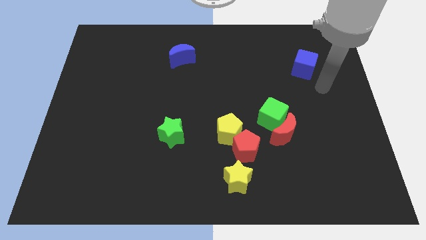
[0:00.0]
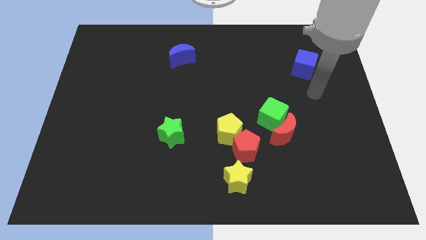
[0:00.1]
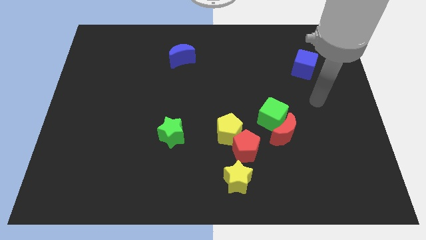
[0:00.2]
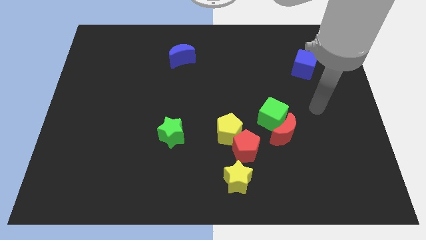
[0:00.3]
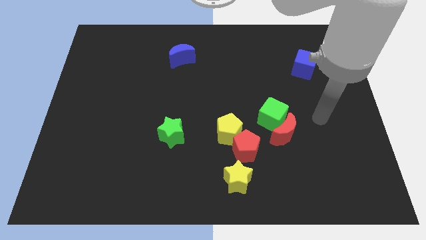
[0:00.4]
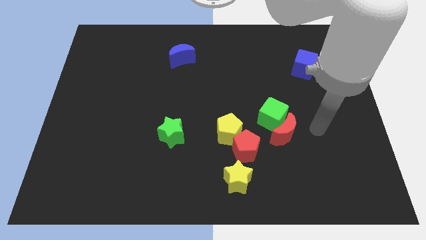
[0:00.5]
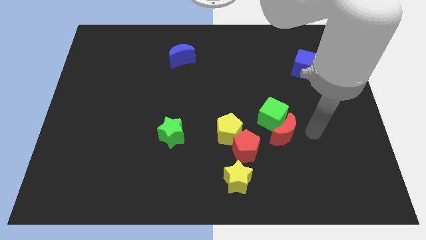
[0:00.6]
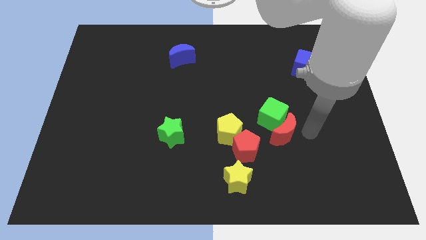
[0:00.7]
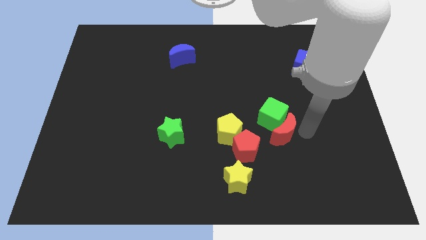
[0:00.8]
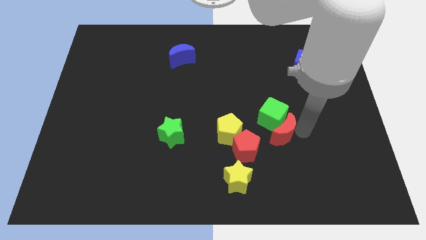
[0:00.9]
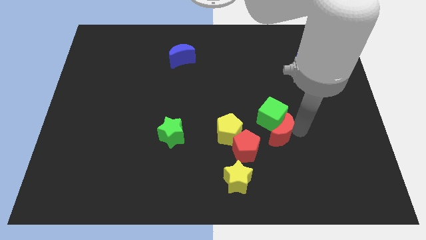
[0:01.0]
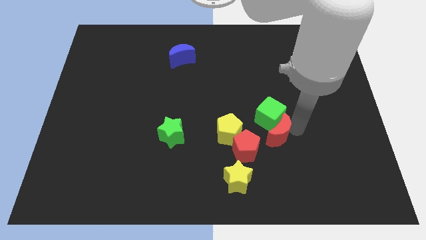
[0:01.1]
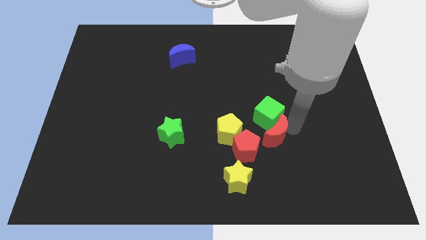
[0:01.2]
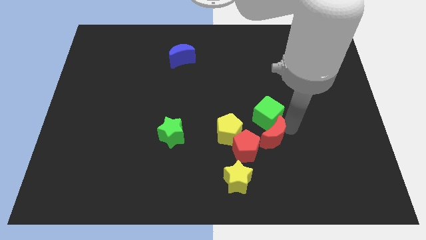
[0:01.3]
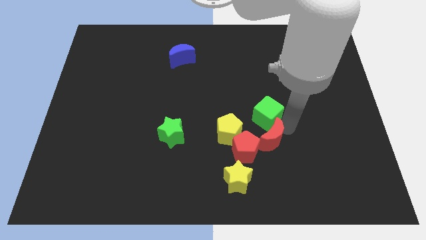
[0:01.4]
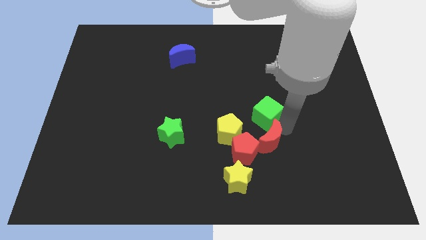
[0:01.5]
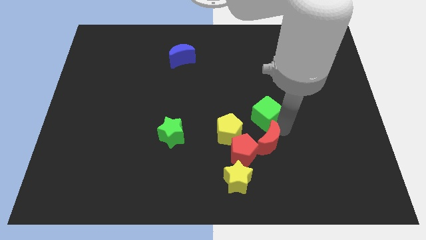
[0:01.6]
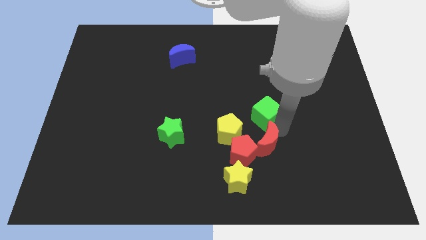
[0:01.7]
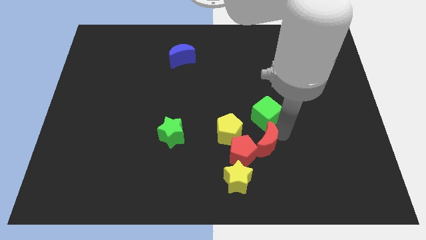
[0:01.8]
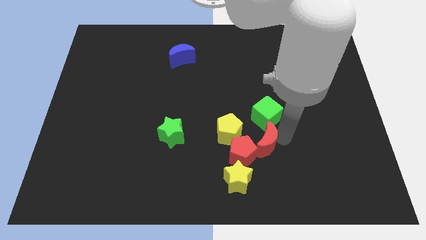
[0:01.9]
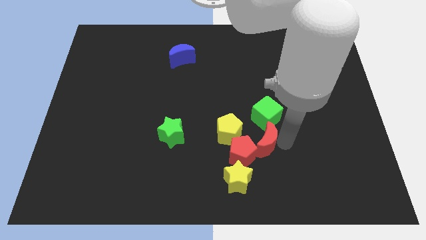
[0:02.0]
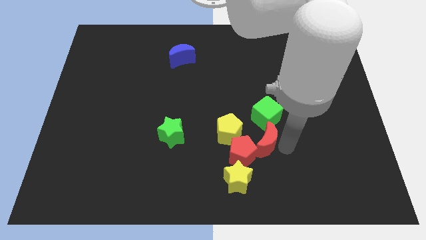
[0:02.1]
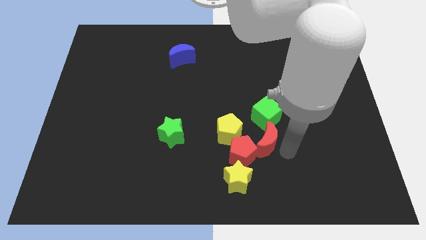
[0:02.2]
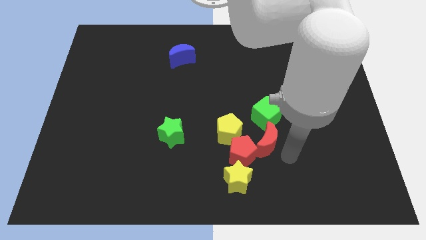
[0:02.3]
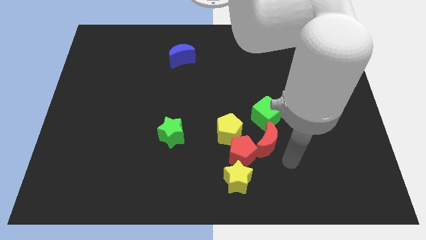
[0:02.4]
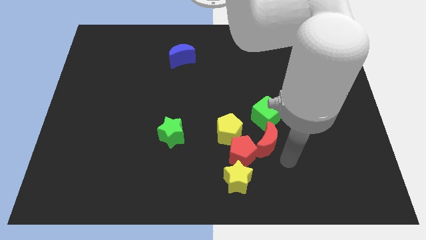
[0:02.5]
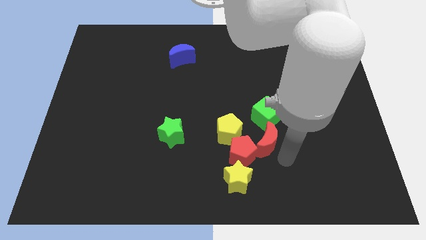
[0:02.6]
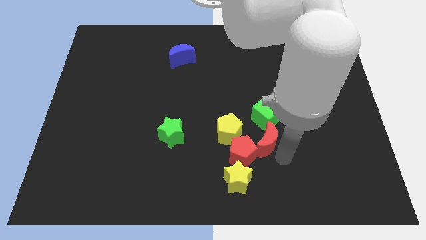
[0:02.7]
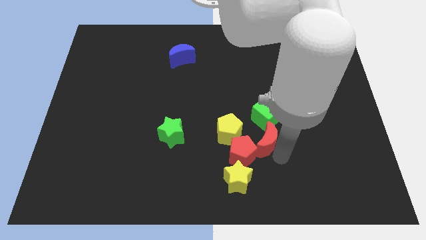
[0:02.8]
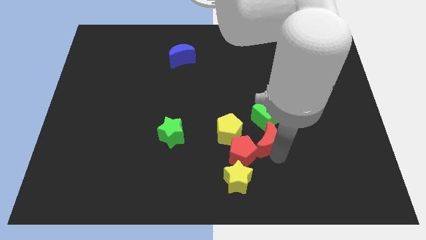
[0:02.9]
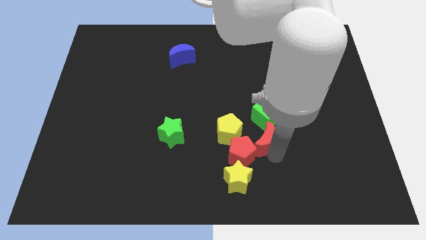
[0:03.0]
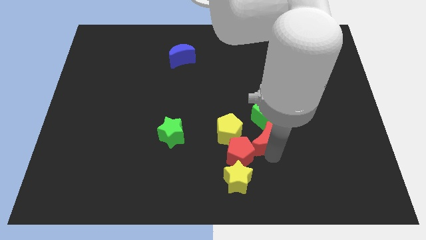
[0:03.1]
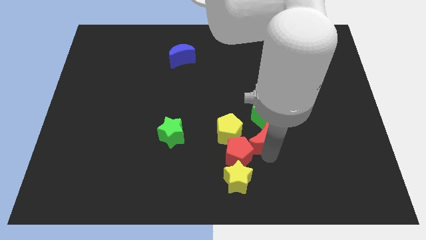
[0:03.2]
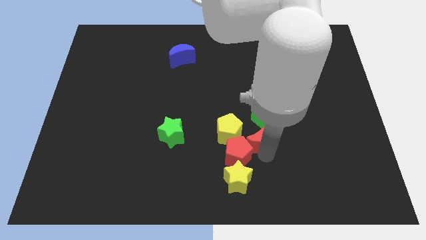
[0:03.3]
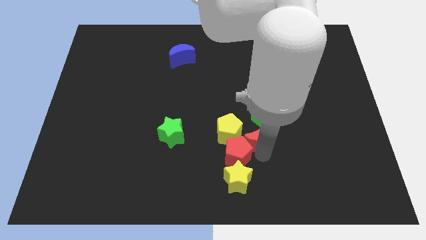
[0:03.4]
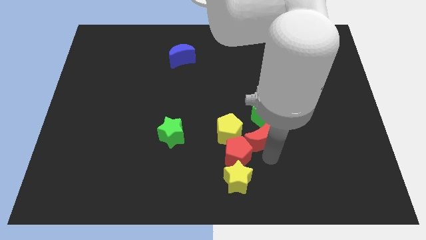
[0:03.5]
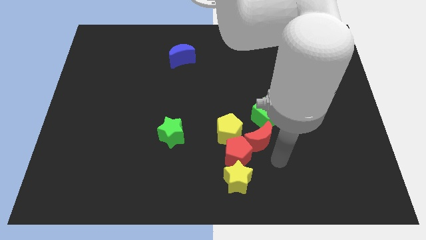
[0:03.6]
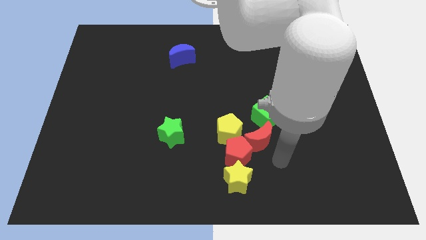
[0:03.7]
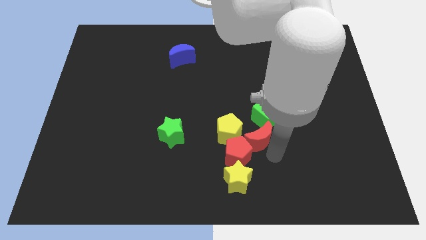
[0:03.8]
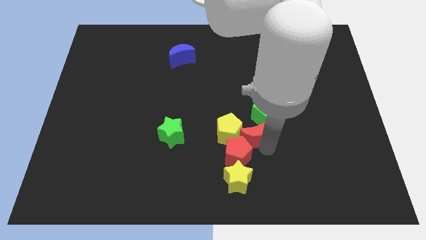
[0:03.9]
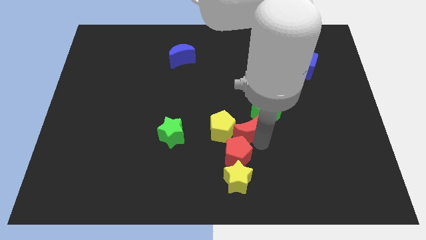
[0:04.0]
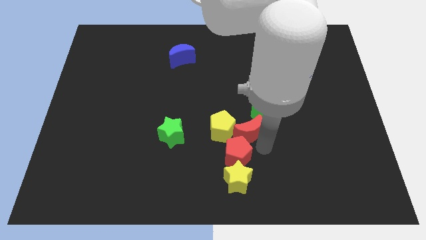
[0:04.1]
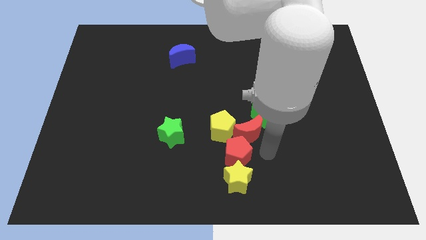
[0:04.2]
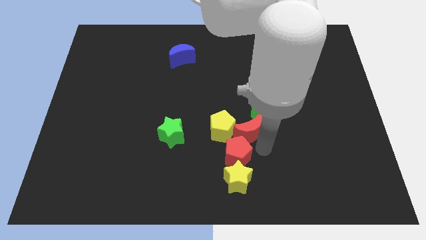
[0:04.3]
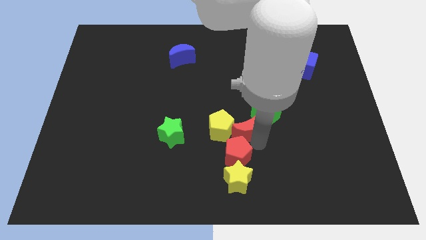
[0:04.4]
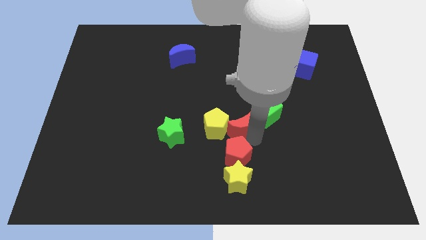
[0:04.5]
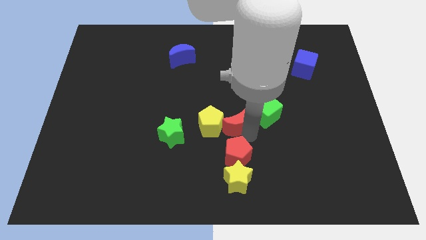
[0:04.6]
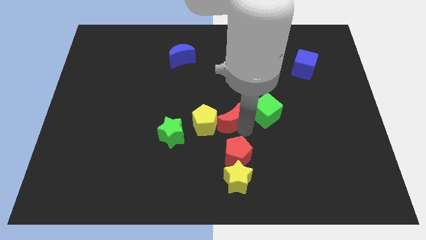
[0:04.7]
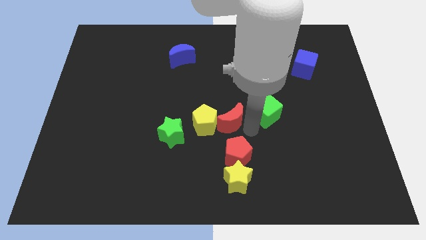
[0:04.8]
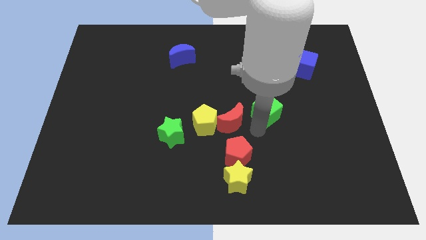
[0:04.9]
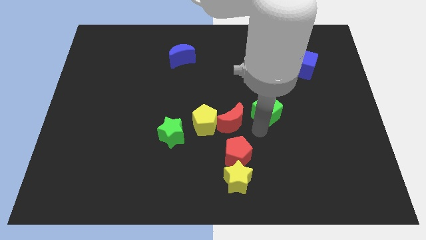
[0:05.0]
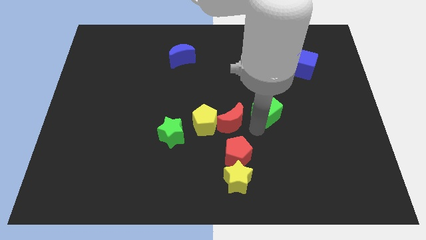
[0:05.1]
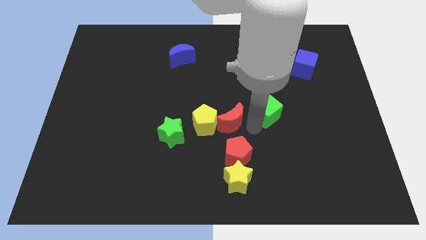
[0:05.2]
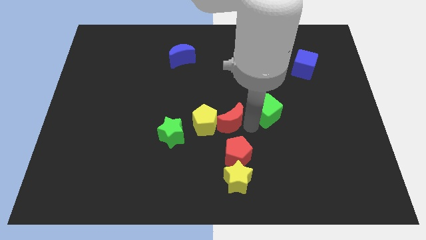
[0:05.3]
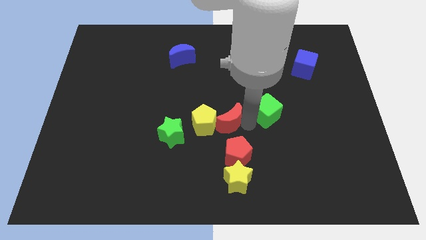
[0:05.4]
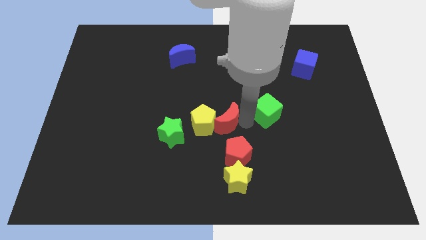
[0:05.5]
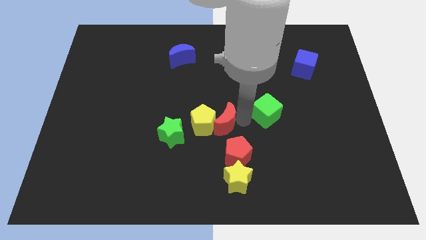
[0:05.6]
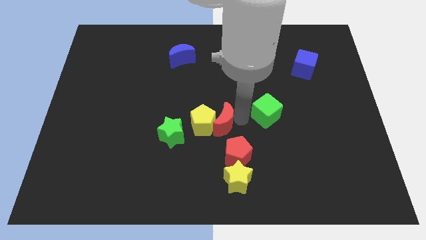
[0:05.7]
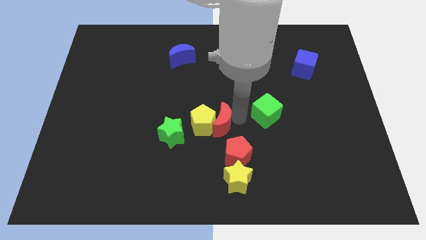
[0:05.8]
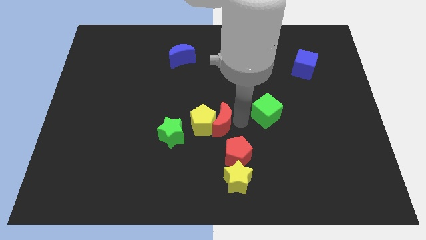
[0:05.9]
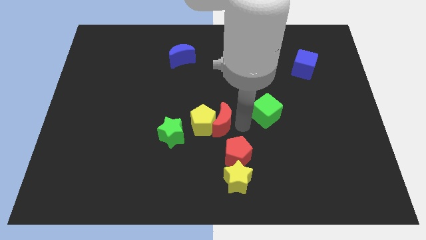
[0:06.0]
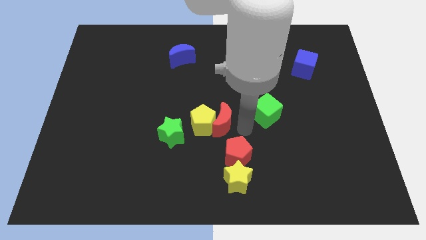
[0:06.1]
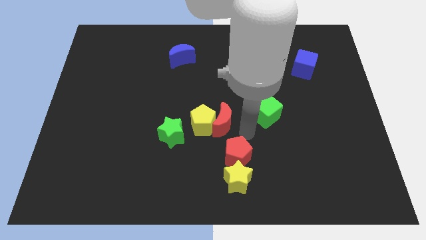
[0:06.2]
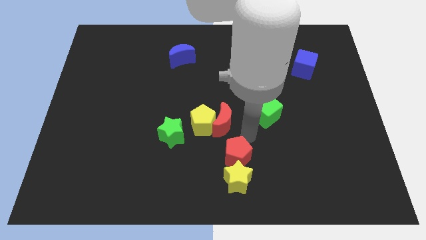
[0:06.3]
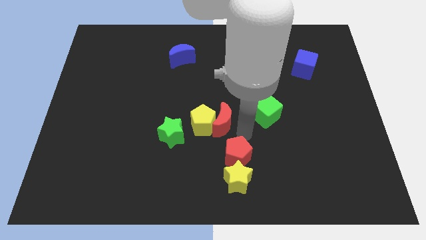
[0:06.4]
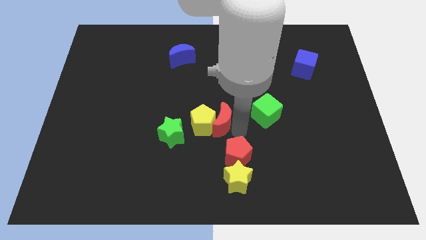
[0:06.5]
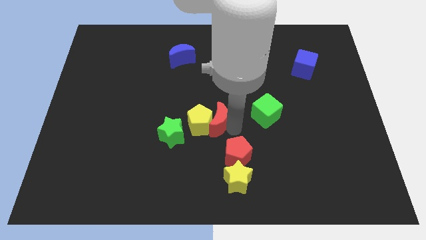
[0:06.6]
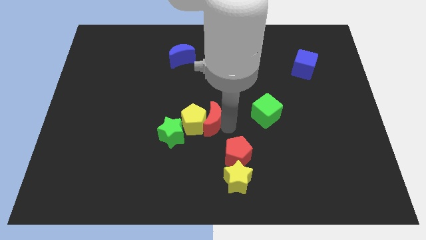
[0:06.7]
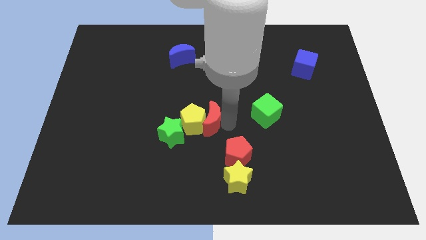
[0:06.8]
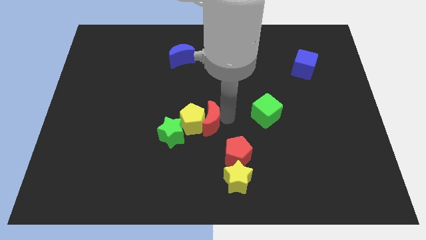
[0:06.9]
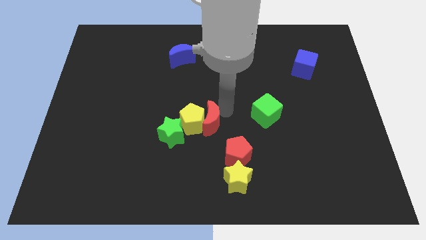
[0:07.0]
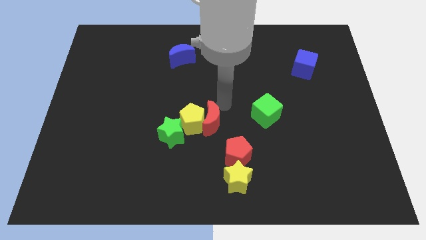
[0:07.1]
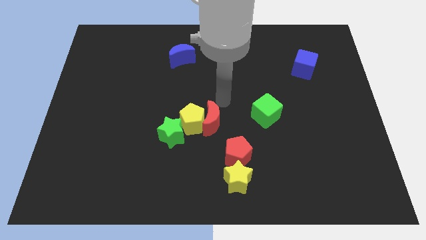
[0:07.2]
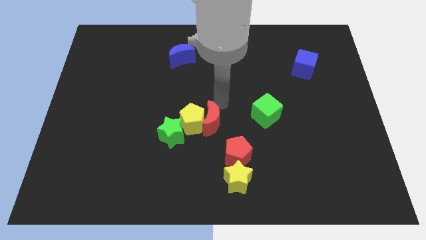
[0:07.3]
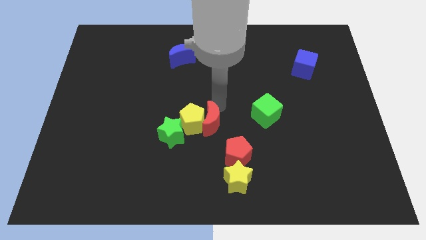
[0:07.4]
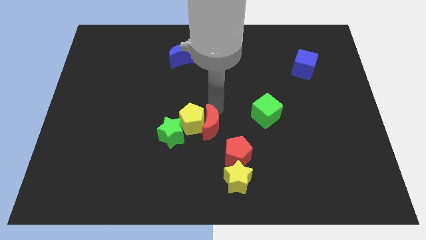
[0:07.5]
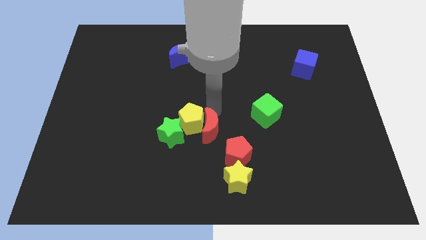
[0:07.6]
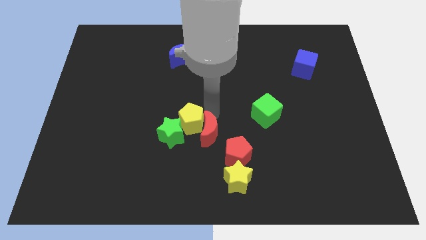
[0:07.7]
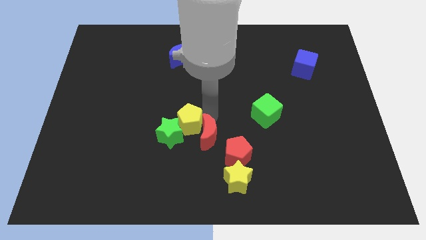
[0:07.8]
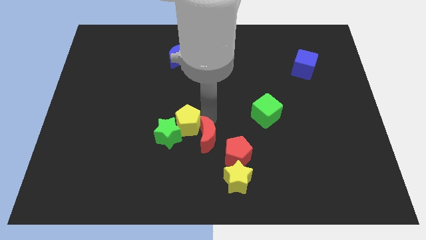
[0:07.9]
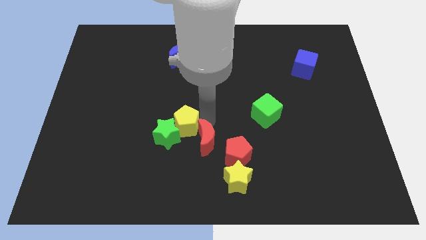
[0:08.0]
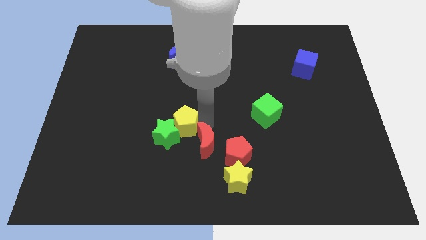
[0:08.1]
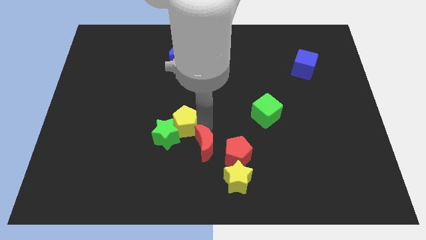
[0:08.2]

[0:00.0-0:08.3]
put the red moon to the bottom right of the green star
